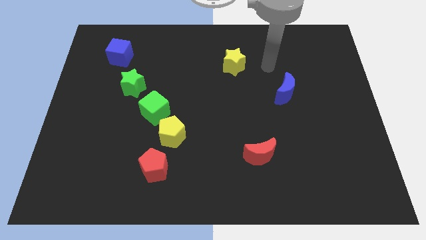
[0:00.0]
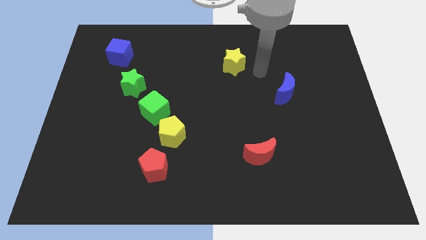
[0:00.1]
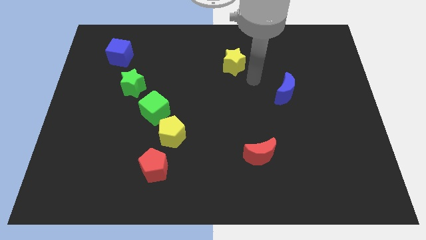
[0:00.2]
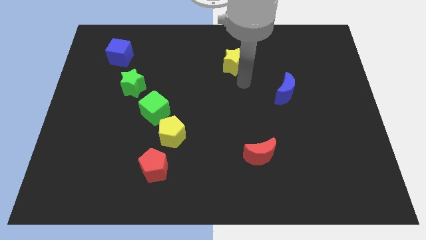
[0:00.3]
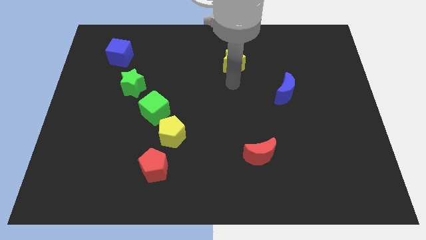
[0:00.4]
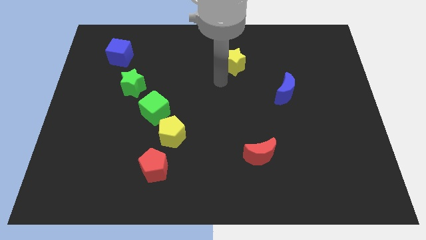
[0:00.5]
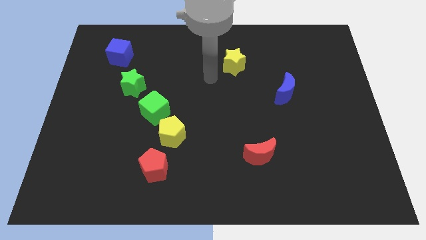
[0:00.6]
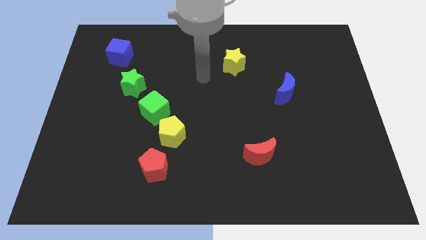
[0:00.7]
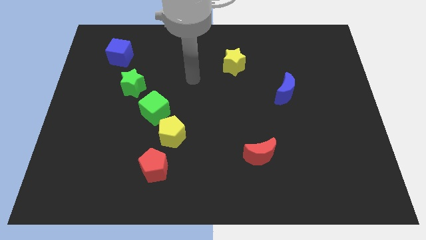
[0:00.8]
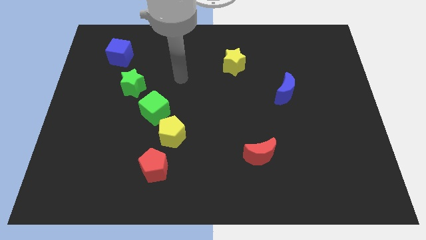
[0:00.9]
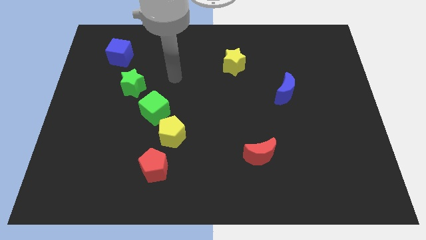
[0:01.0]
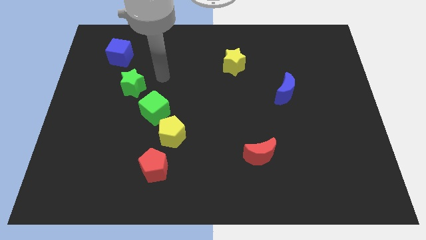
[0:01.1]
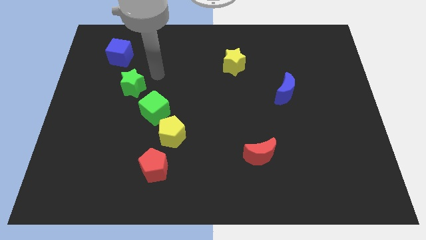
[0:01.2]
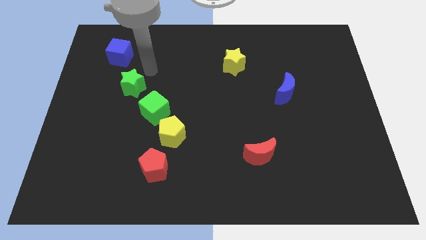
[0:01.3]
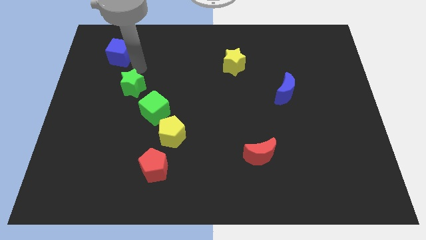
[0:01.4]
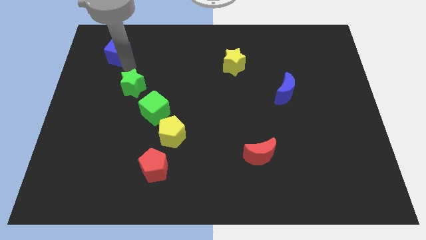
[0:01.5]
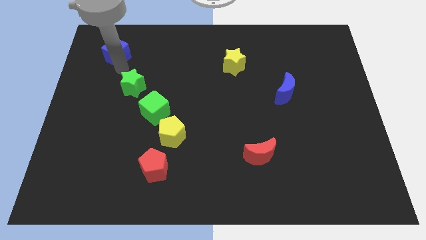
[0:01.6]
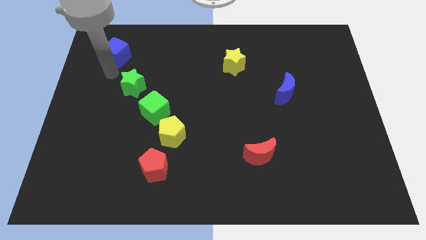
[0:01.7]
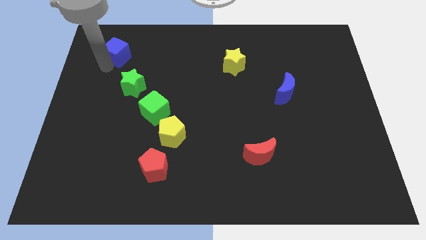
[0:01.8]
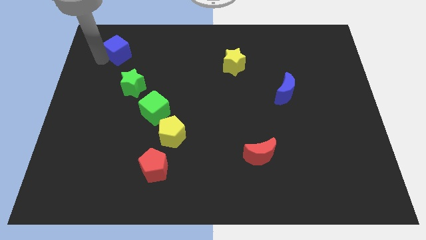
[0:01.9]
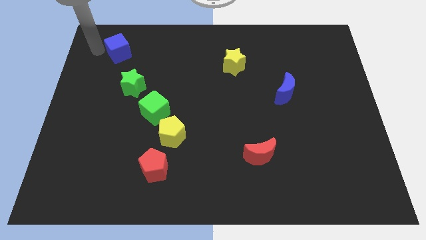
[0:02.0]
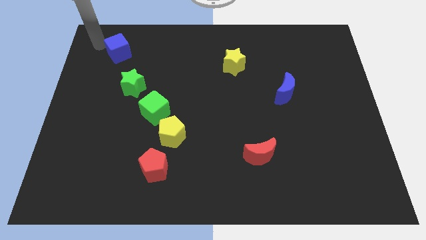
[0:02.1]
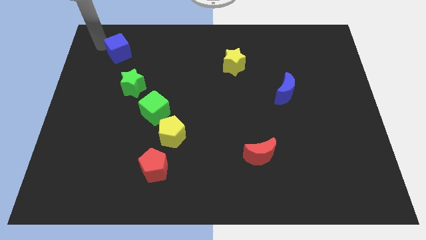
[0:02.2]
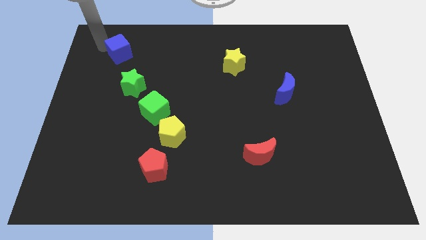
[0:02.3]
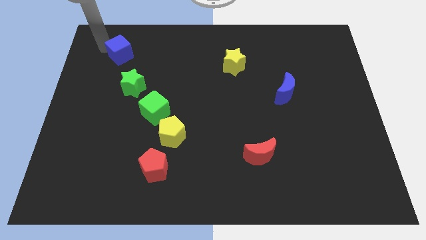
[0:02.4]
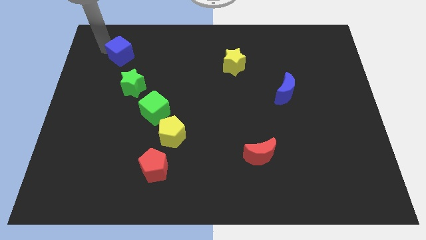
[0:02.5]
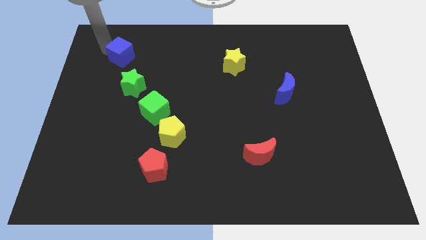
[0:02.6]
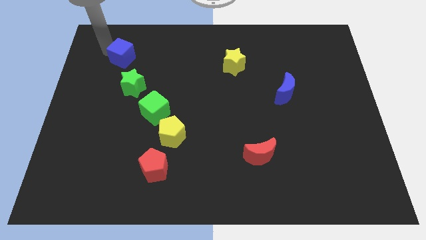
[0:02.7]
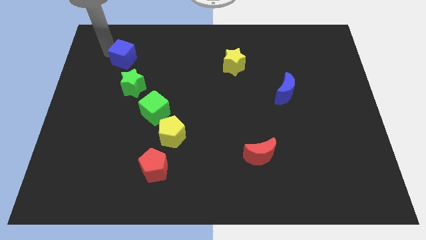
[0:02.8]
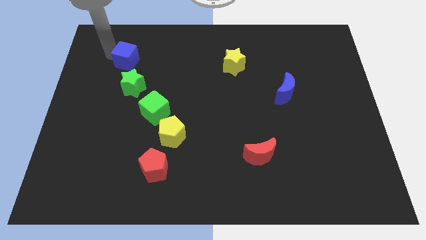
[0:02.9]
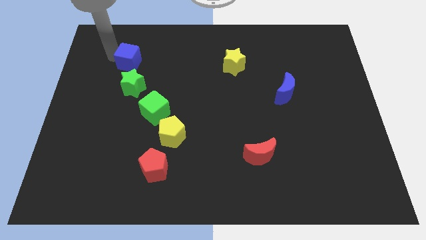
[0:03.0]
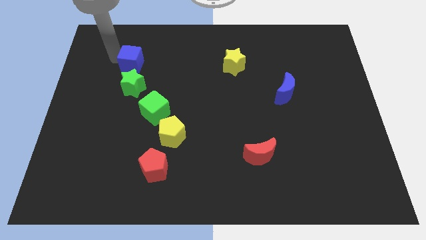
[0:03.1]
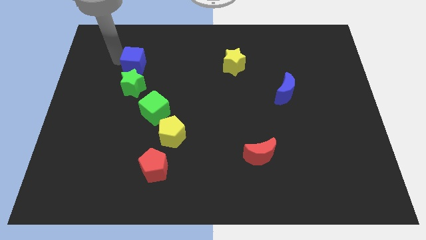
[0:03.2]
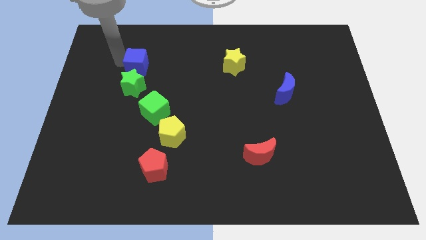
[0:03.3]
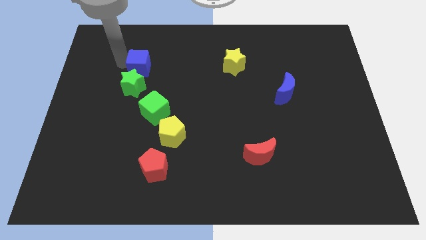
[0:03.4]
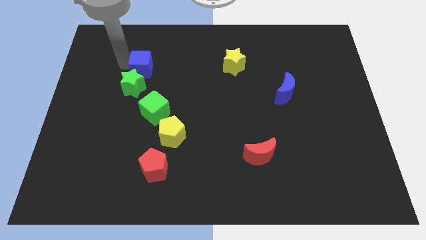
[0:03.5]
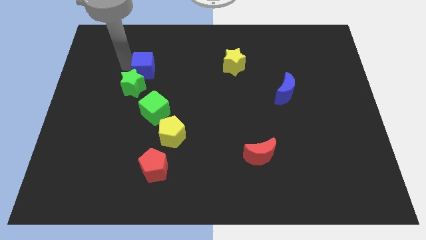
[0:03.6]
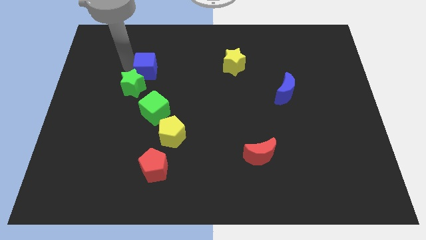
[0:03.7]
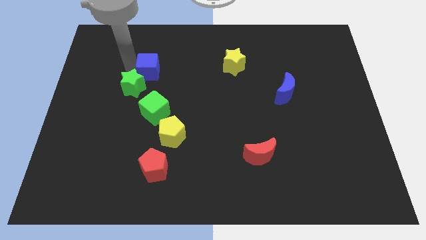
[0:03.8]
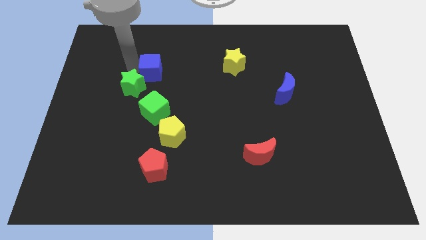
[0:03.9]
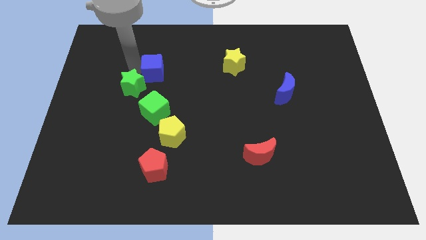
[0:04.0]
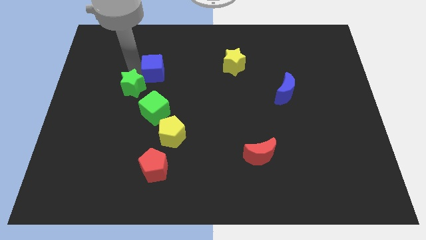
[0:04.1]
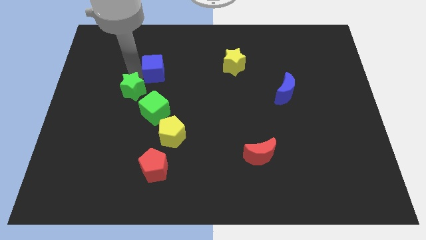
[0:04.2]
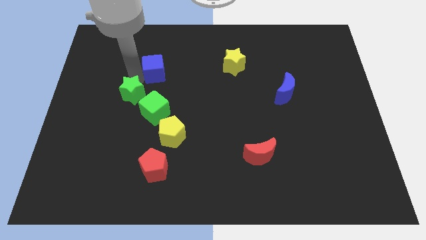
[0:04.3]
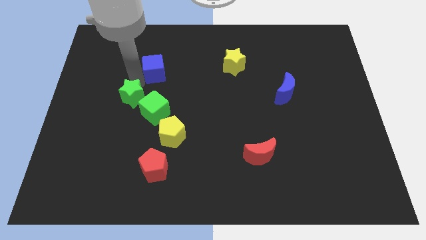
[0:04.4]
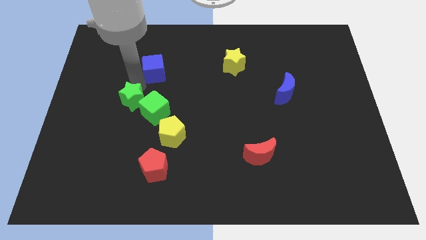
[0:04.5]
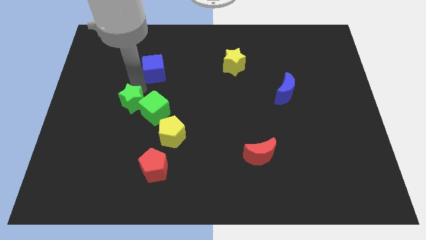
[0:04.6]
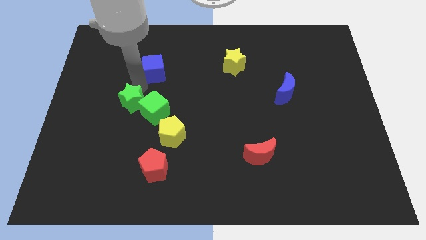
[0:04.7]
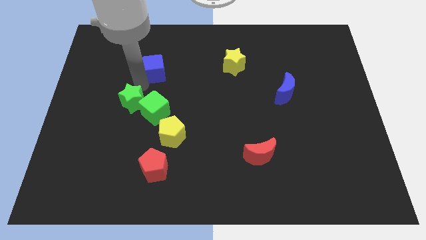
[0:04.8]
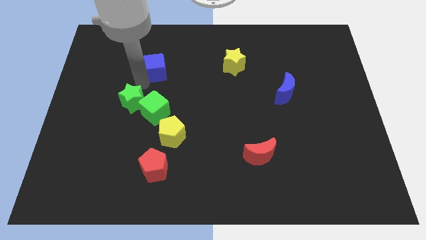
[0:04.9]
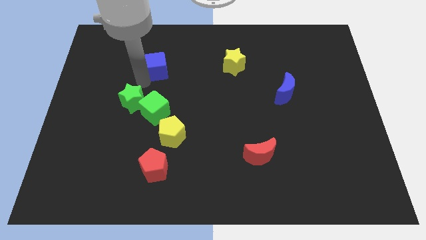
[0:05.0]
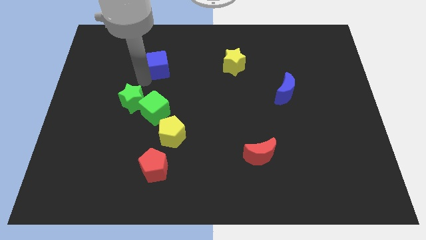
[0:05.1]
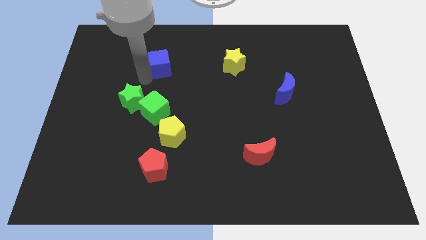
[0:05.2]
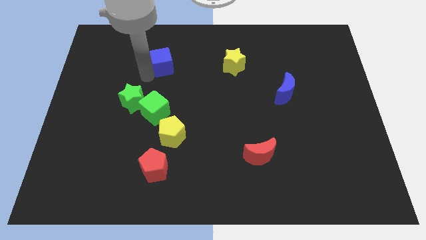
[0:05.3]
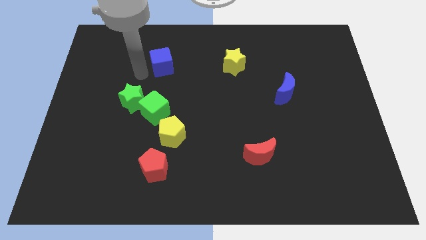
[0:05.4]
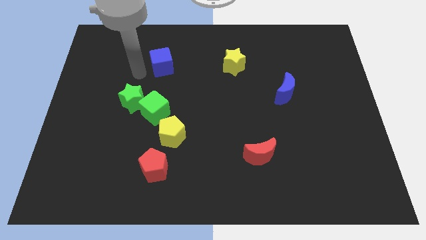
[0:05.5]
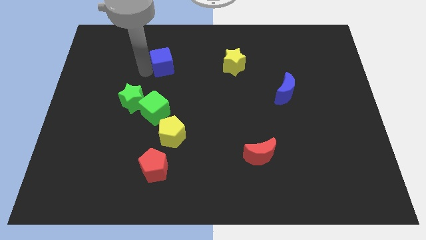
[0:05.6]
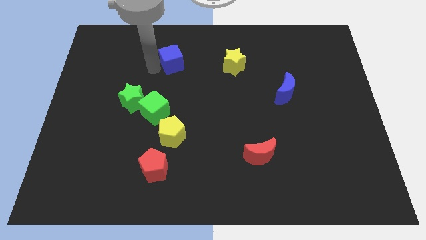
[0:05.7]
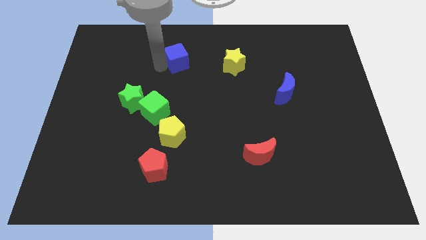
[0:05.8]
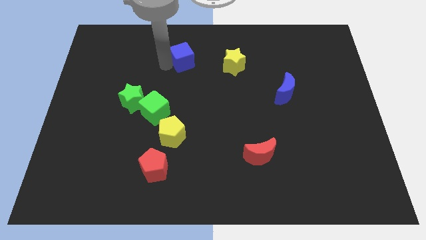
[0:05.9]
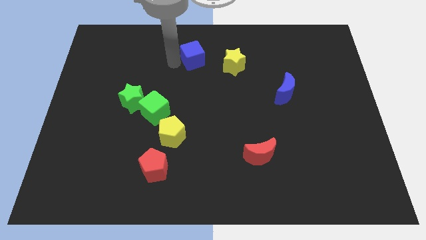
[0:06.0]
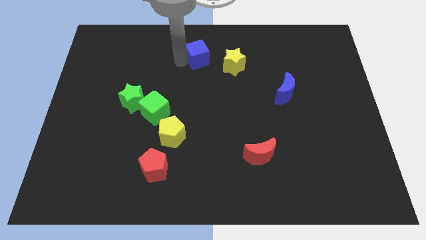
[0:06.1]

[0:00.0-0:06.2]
move the blue cube to the right

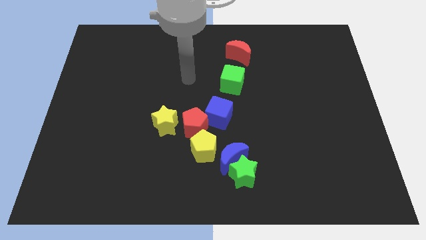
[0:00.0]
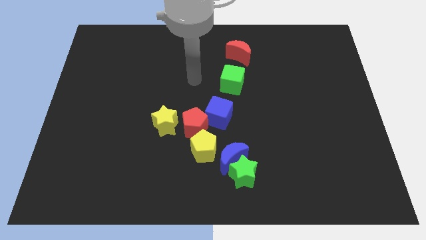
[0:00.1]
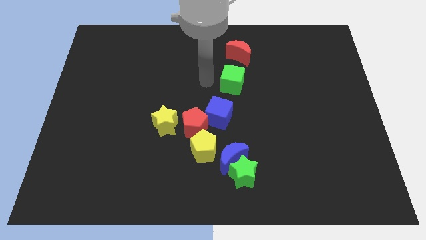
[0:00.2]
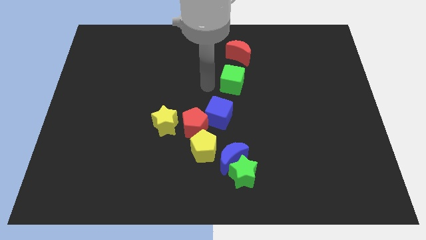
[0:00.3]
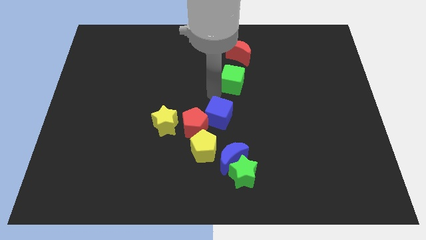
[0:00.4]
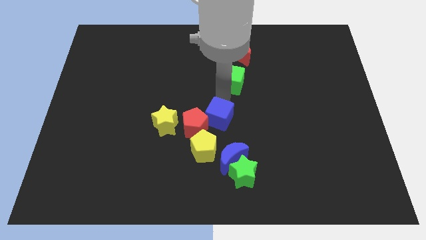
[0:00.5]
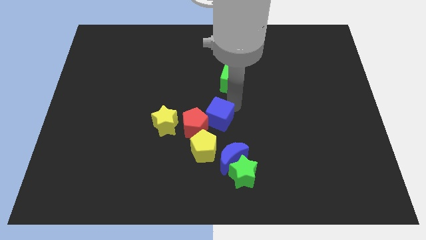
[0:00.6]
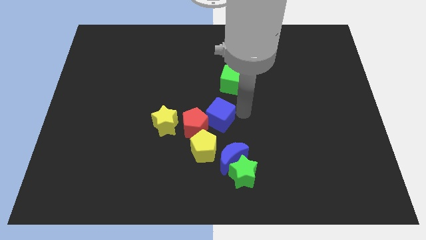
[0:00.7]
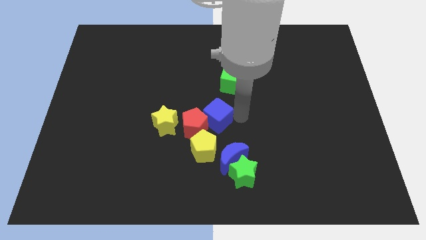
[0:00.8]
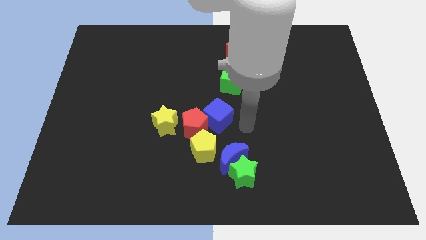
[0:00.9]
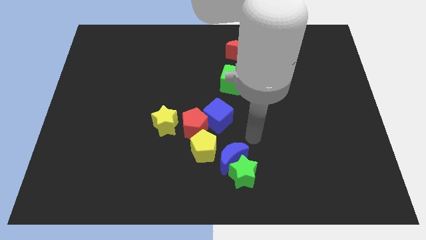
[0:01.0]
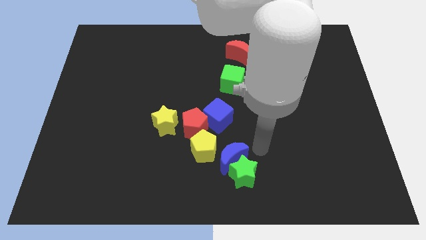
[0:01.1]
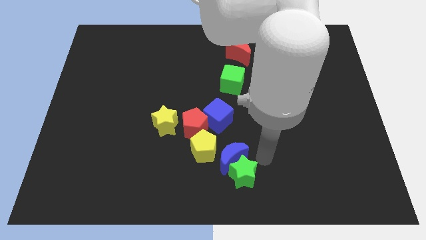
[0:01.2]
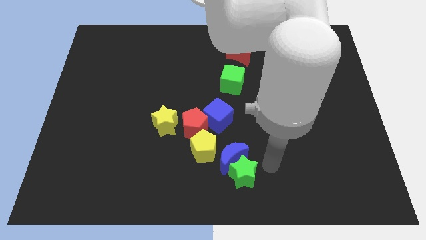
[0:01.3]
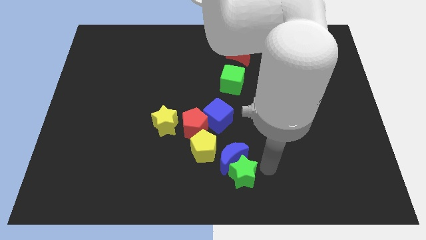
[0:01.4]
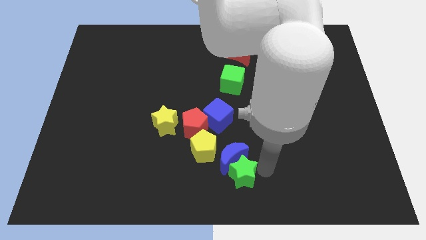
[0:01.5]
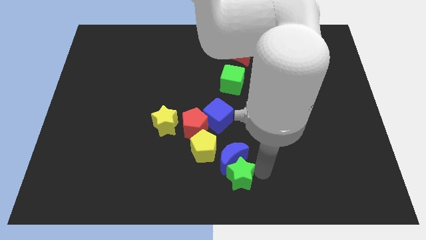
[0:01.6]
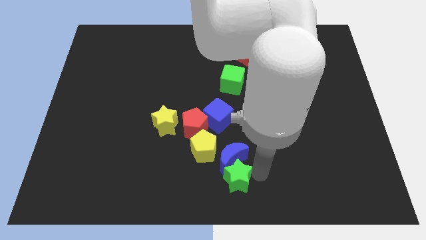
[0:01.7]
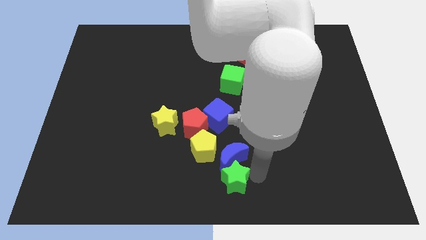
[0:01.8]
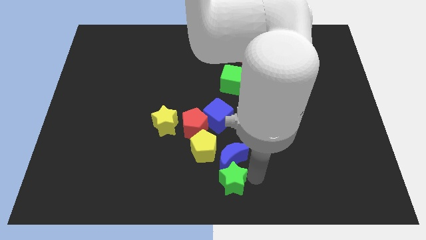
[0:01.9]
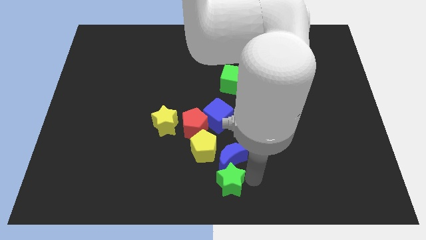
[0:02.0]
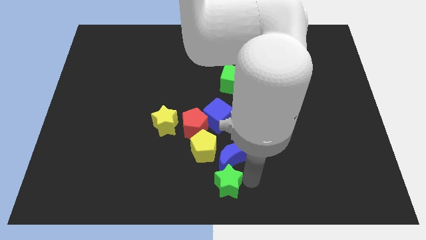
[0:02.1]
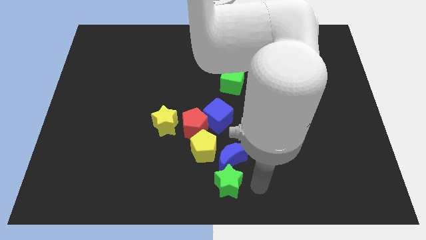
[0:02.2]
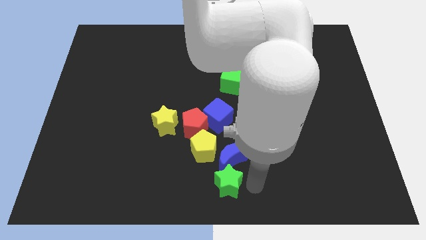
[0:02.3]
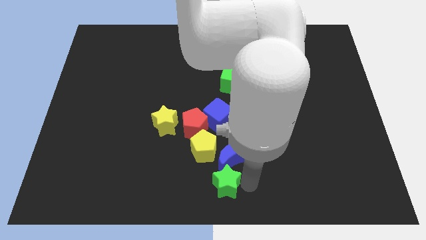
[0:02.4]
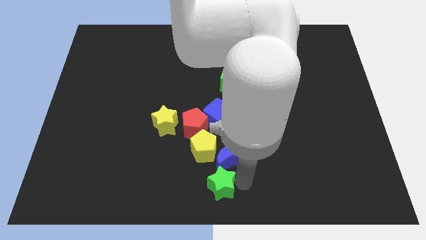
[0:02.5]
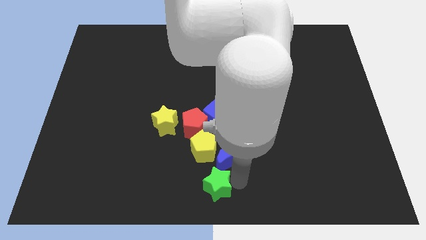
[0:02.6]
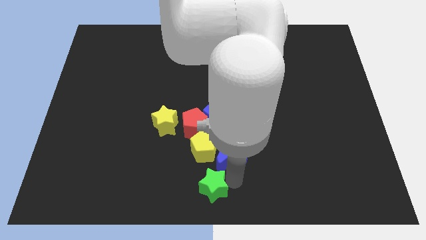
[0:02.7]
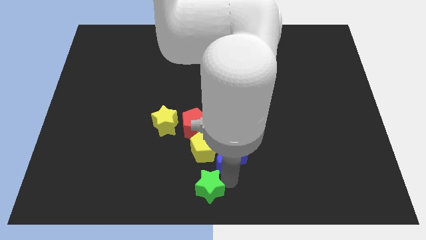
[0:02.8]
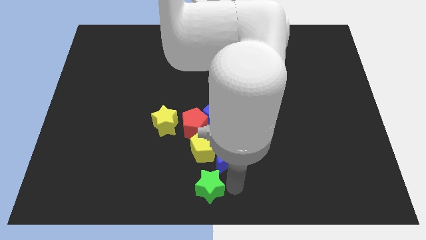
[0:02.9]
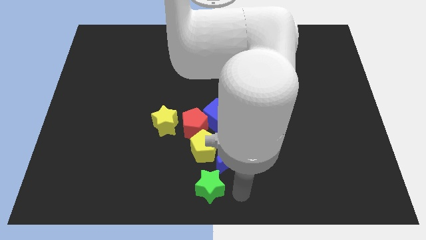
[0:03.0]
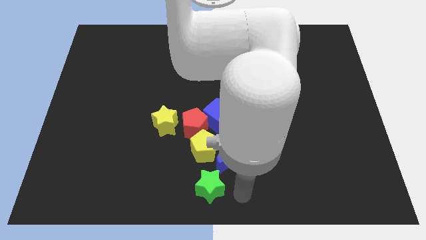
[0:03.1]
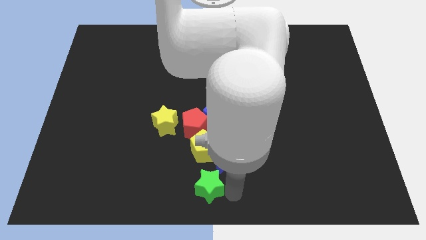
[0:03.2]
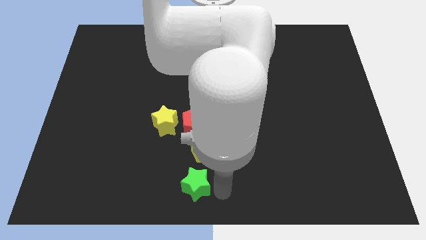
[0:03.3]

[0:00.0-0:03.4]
push the green star left slightly
